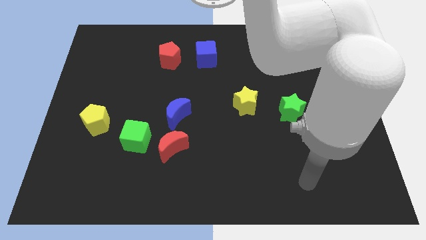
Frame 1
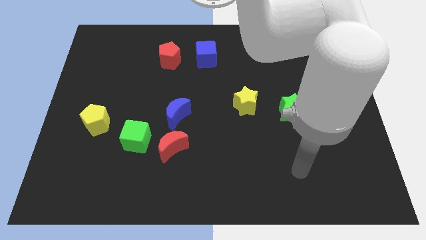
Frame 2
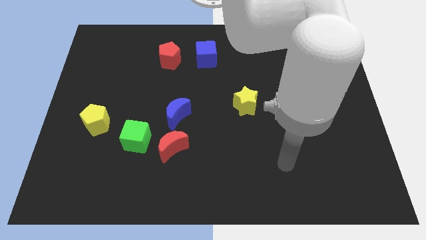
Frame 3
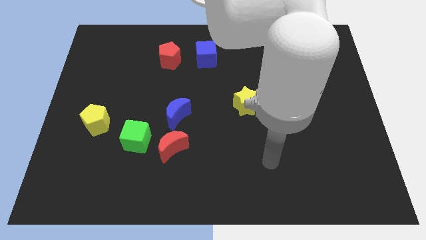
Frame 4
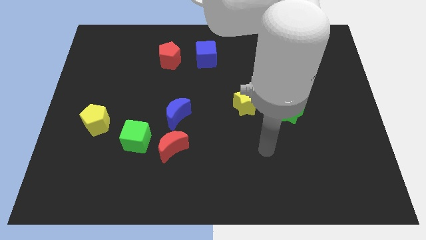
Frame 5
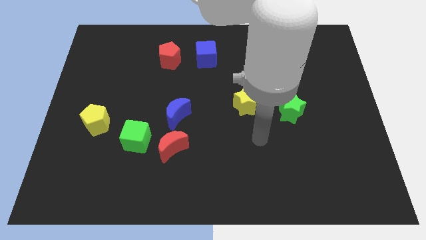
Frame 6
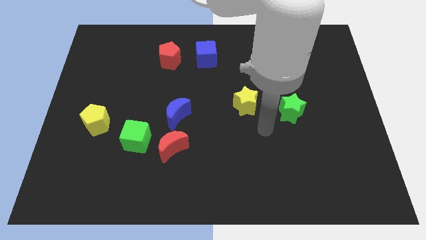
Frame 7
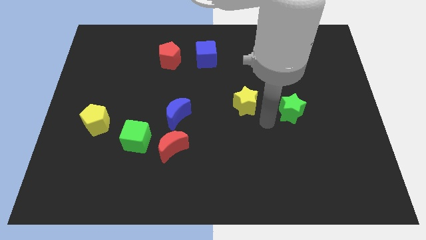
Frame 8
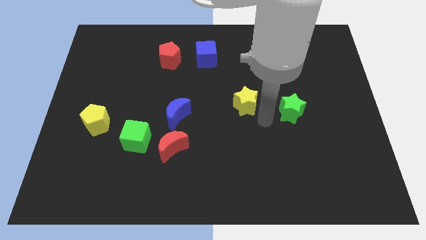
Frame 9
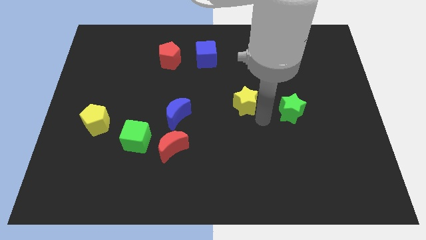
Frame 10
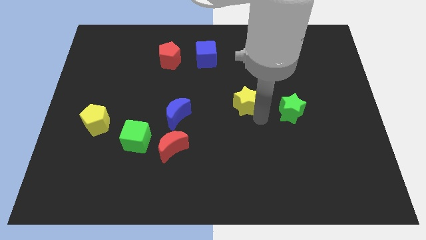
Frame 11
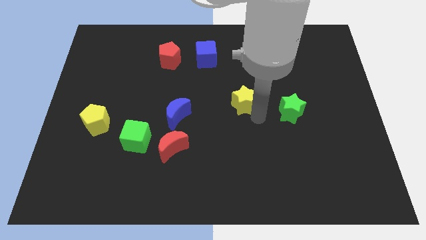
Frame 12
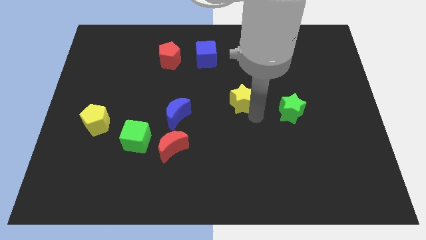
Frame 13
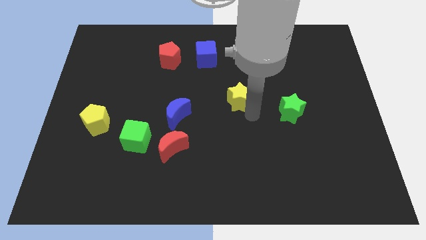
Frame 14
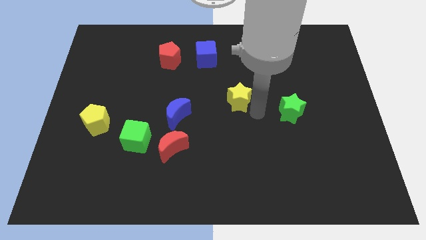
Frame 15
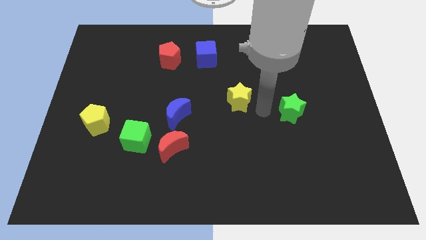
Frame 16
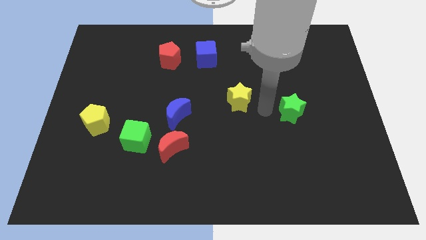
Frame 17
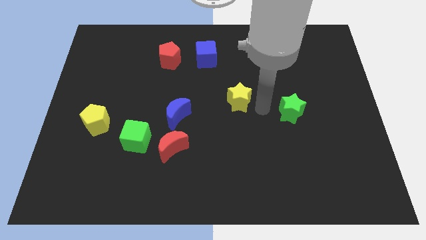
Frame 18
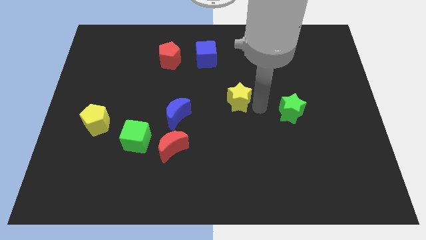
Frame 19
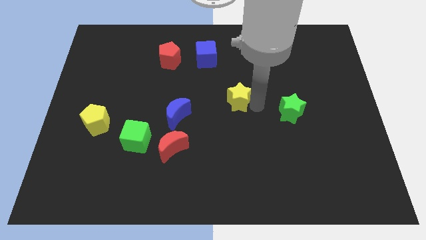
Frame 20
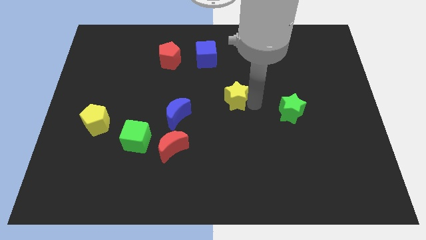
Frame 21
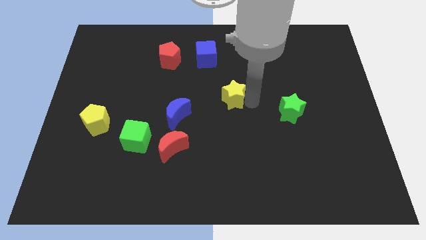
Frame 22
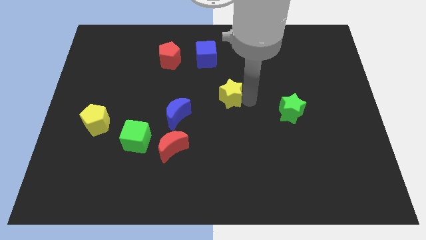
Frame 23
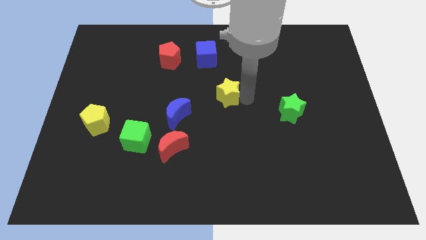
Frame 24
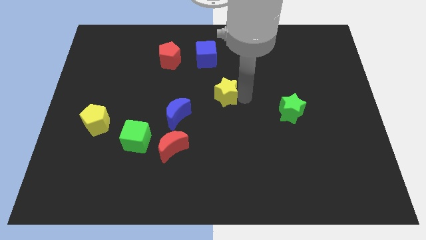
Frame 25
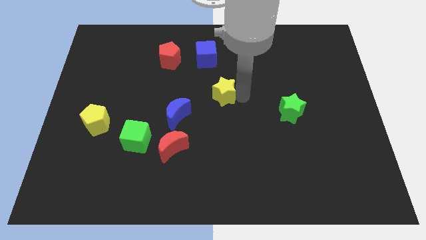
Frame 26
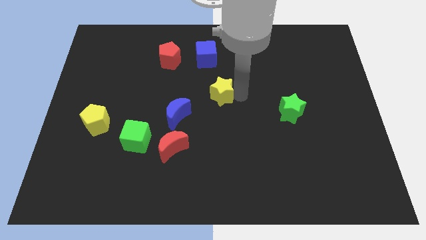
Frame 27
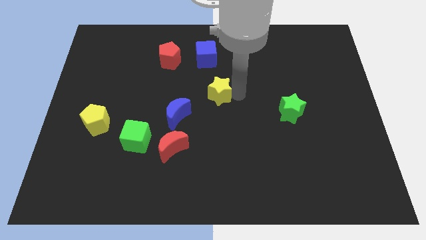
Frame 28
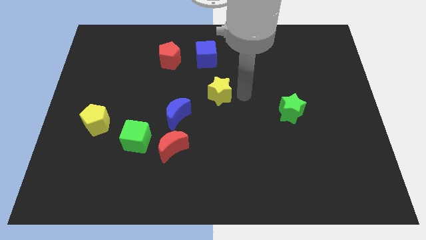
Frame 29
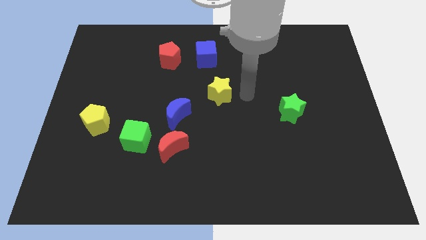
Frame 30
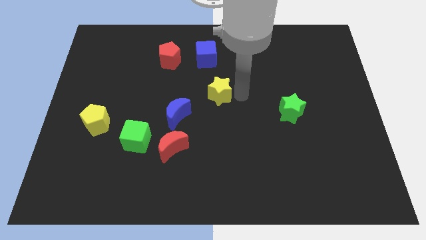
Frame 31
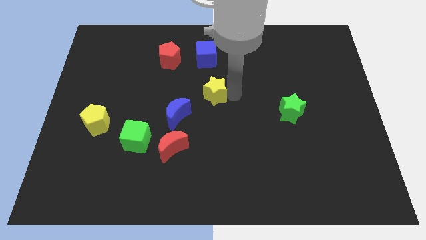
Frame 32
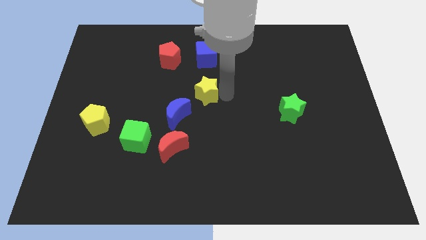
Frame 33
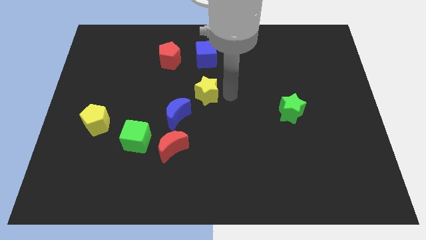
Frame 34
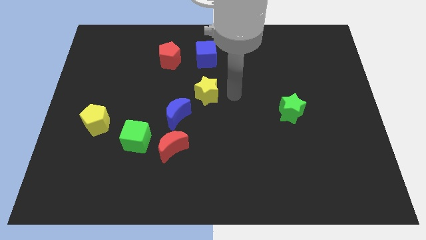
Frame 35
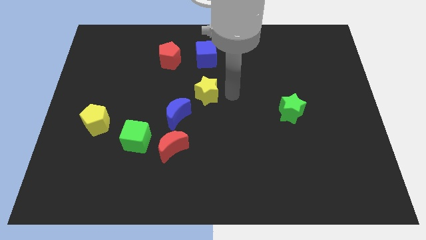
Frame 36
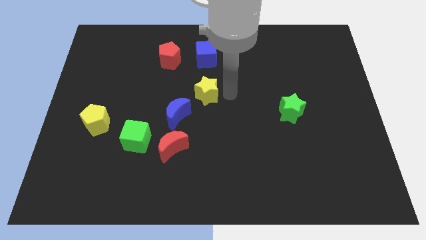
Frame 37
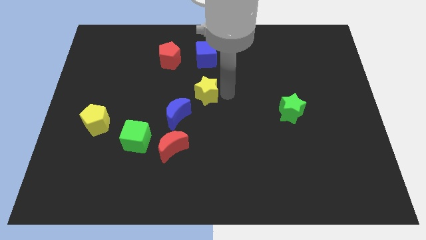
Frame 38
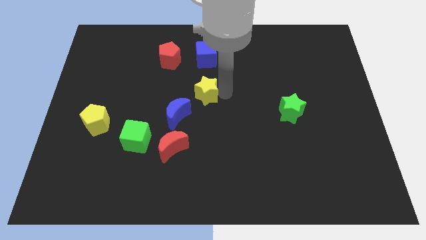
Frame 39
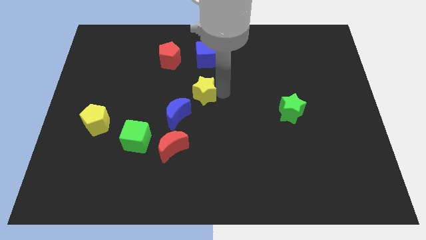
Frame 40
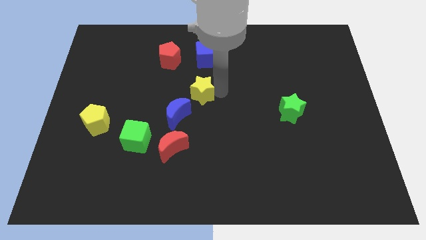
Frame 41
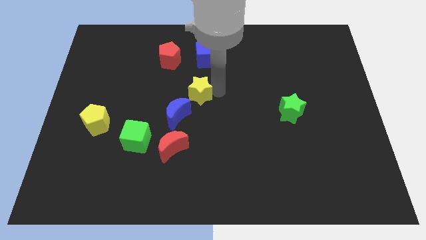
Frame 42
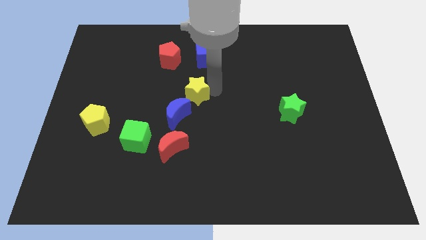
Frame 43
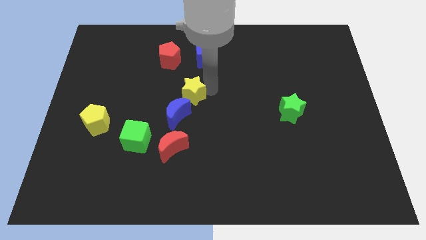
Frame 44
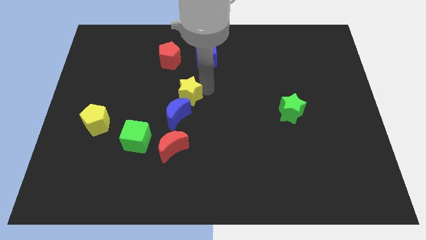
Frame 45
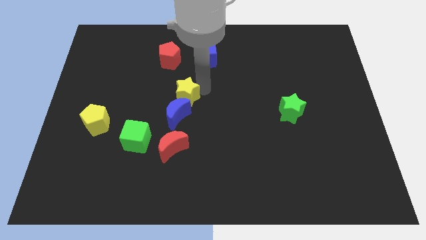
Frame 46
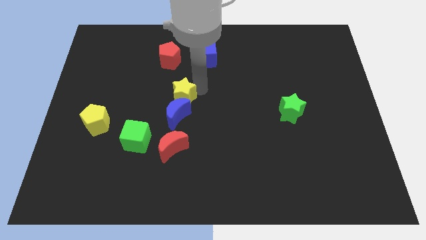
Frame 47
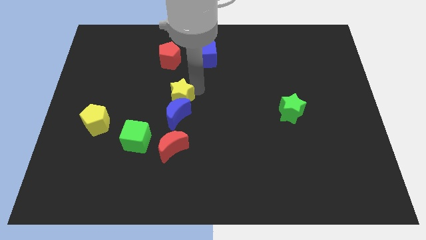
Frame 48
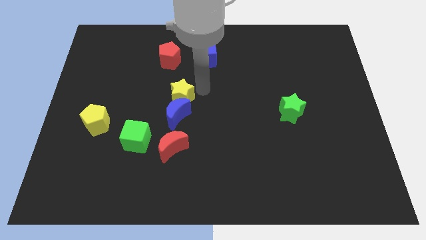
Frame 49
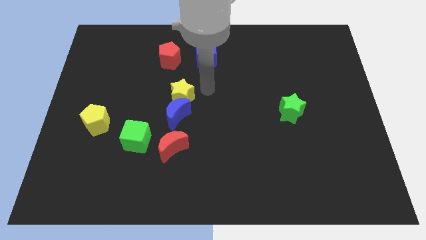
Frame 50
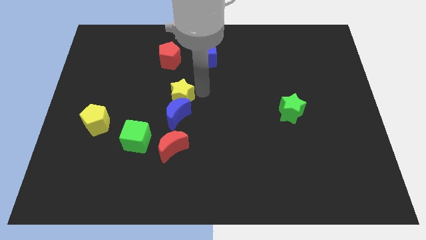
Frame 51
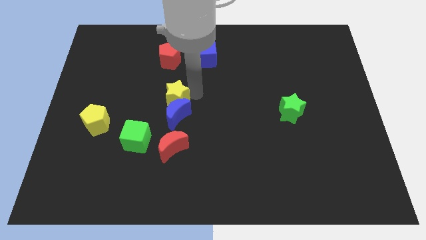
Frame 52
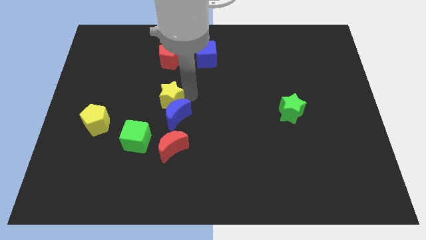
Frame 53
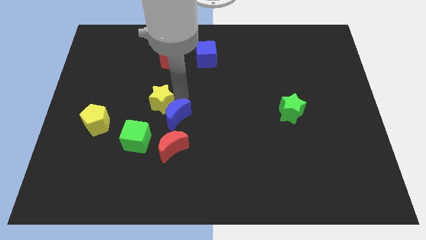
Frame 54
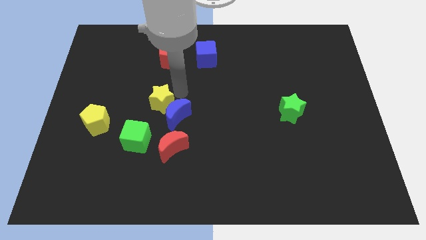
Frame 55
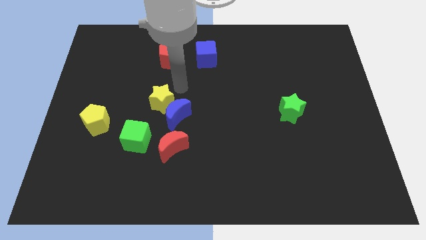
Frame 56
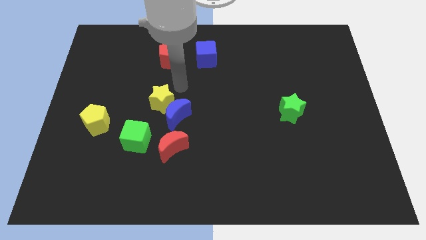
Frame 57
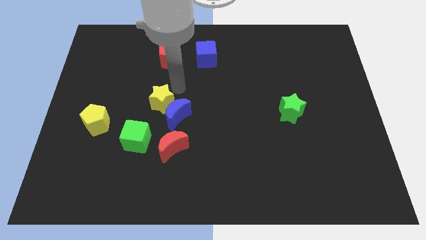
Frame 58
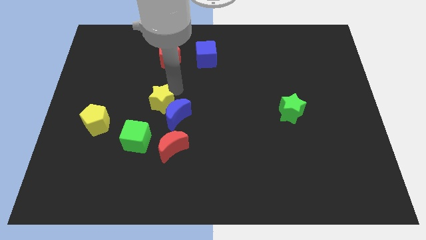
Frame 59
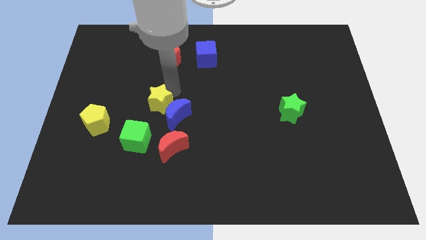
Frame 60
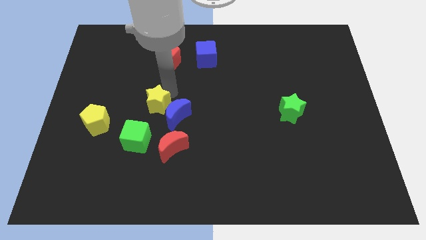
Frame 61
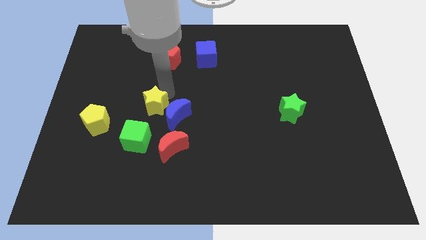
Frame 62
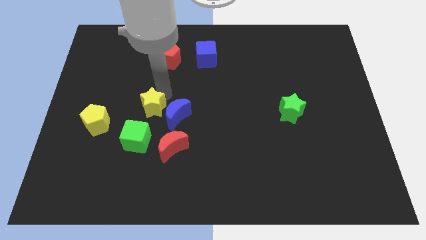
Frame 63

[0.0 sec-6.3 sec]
push the yellow star just right of the yellow pentagon
